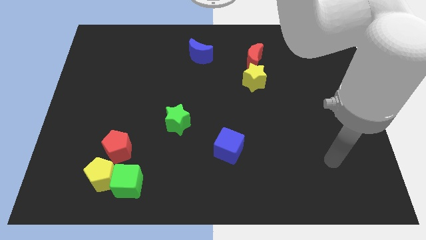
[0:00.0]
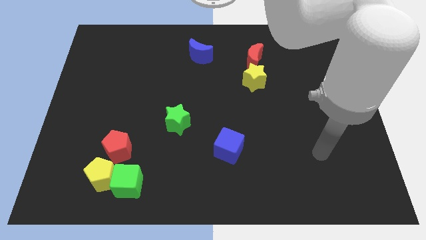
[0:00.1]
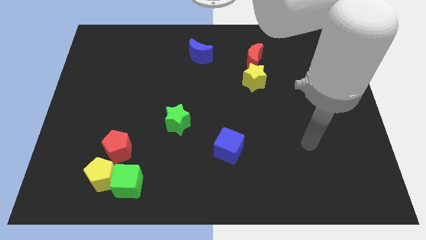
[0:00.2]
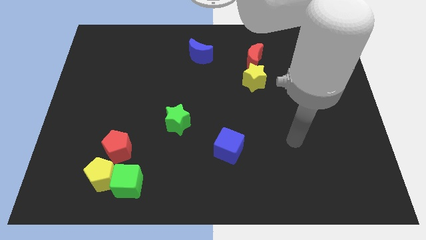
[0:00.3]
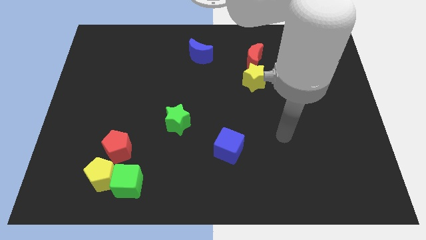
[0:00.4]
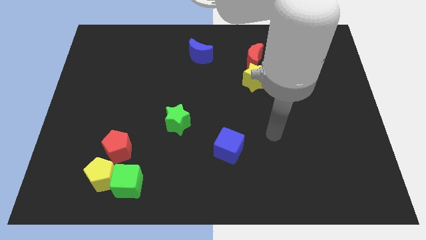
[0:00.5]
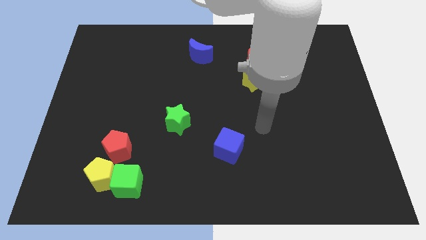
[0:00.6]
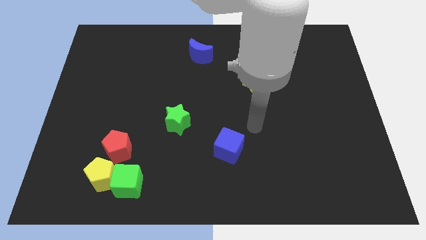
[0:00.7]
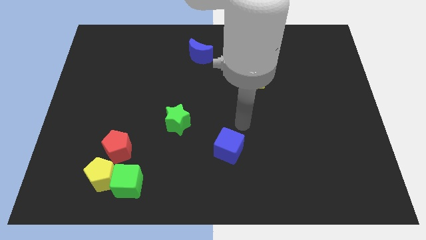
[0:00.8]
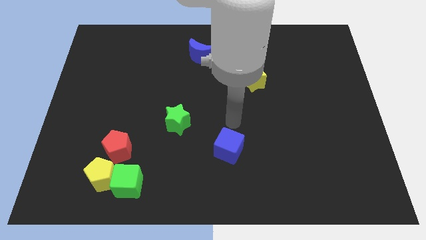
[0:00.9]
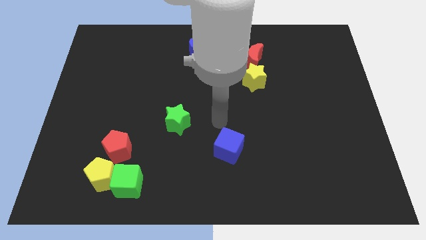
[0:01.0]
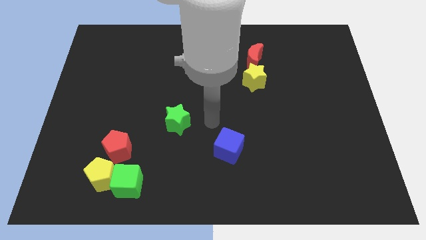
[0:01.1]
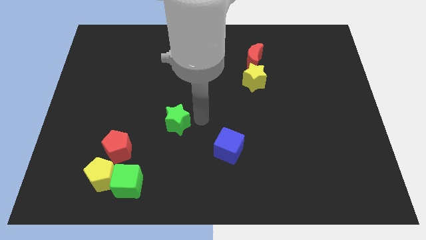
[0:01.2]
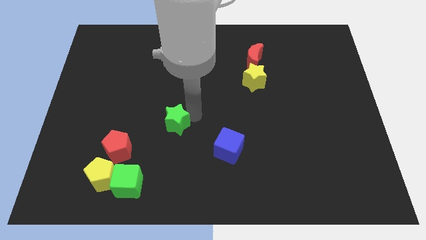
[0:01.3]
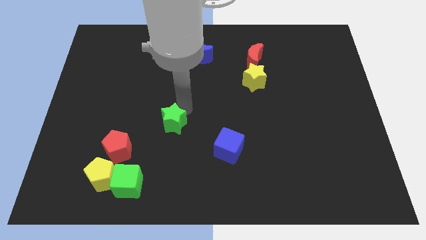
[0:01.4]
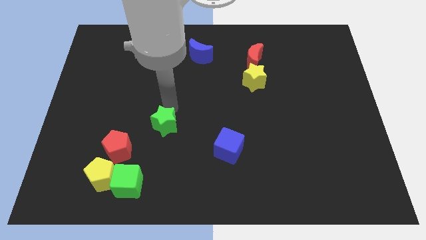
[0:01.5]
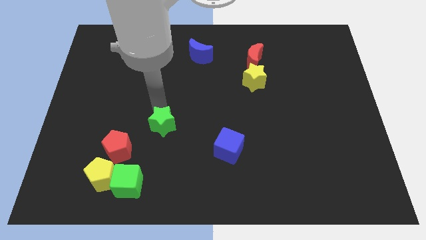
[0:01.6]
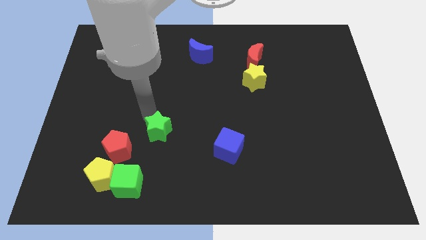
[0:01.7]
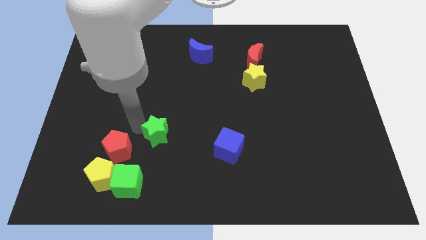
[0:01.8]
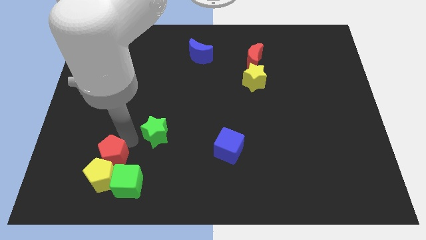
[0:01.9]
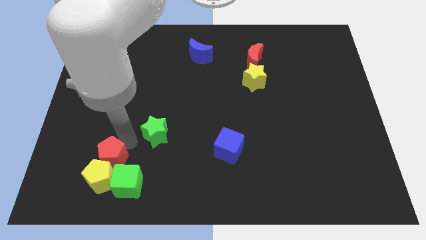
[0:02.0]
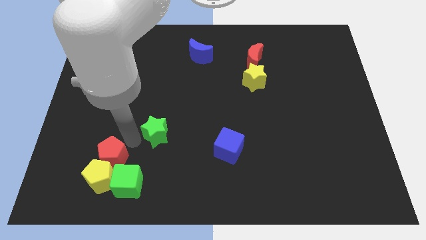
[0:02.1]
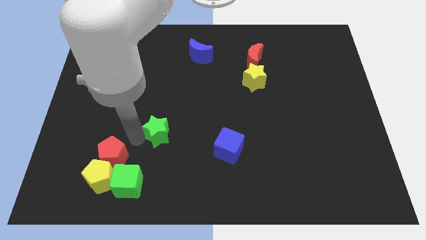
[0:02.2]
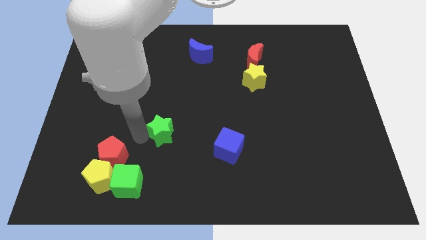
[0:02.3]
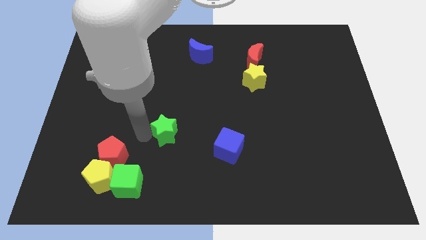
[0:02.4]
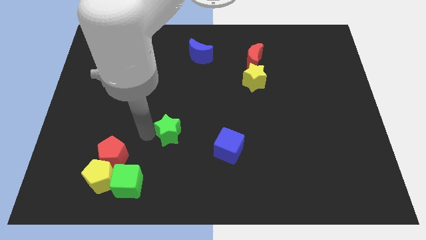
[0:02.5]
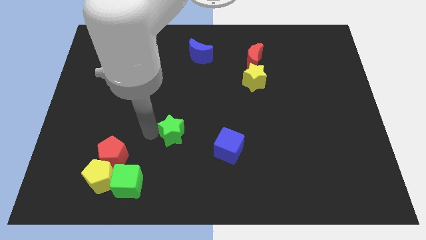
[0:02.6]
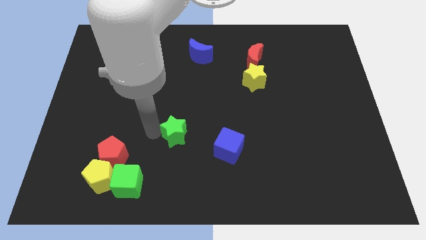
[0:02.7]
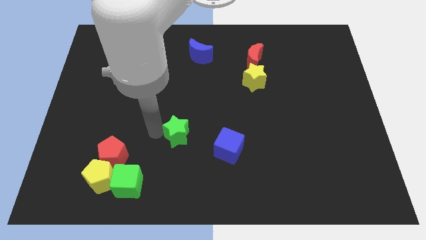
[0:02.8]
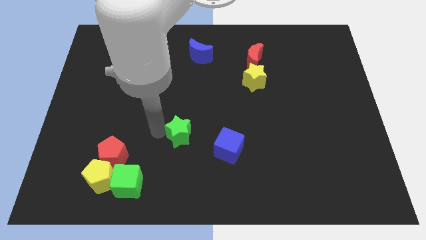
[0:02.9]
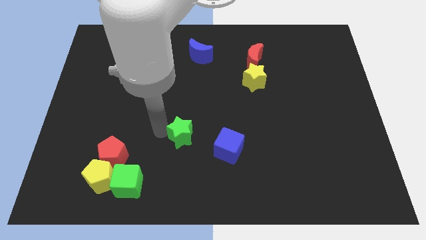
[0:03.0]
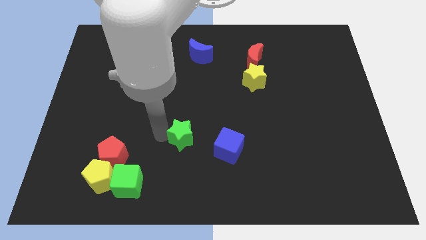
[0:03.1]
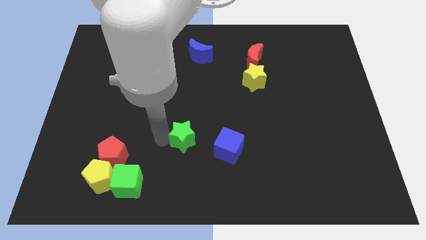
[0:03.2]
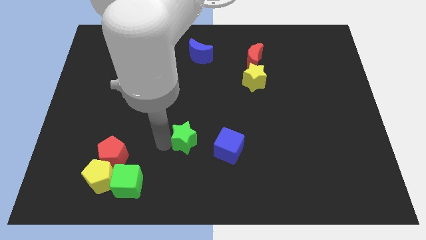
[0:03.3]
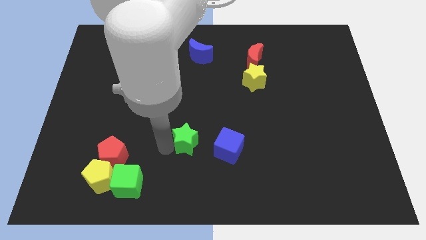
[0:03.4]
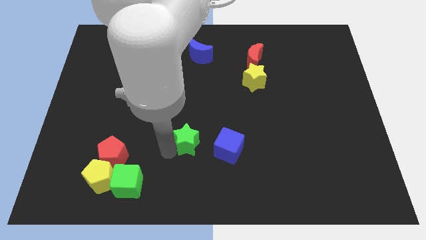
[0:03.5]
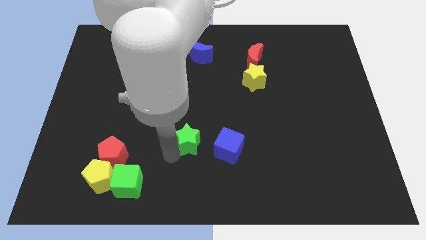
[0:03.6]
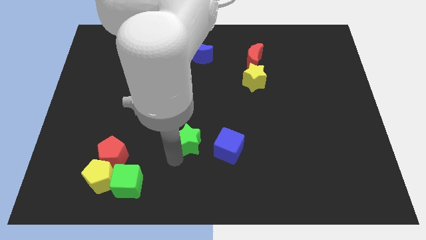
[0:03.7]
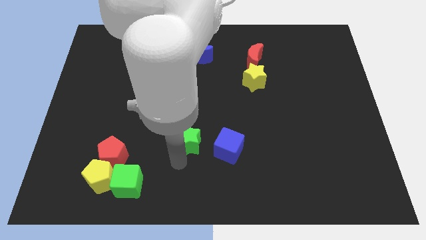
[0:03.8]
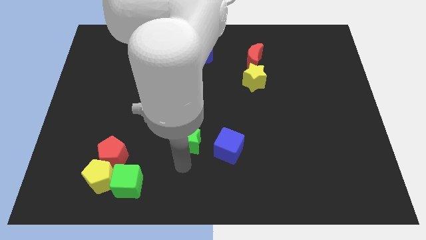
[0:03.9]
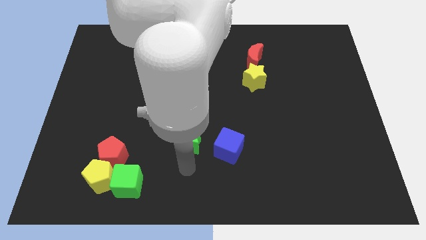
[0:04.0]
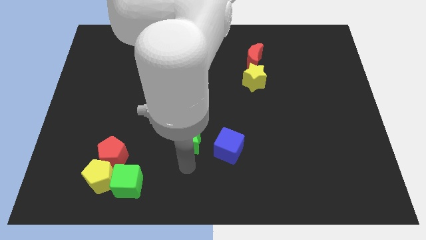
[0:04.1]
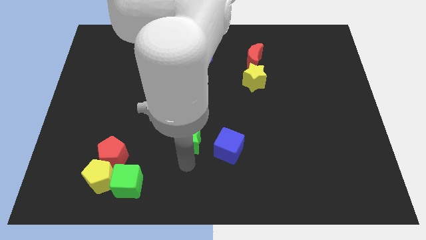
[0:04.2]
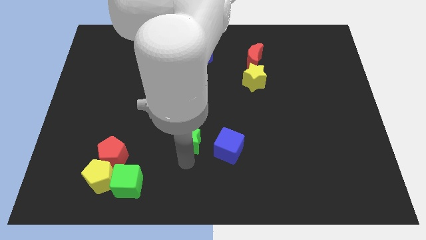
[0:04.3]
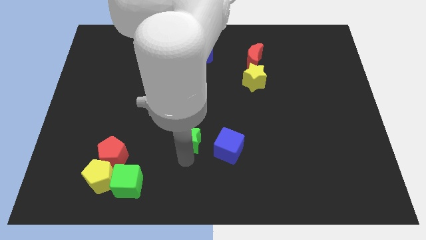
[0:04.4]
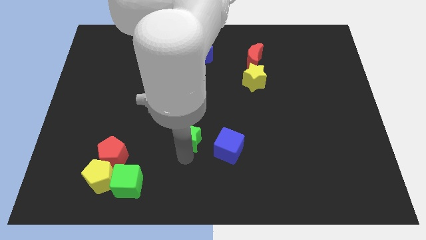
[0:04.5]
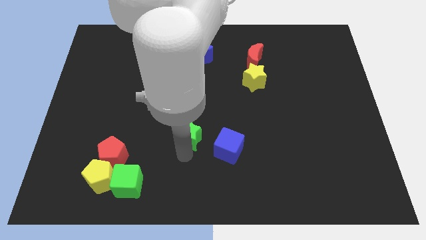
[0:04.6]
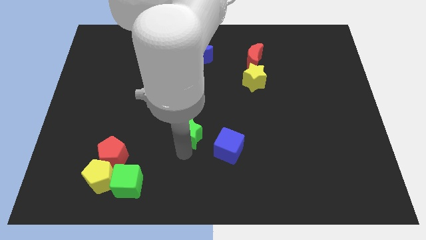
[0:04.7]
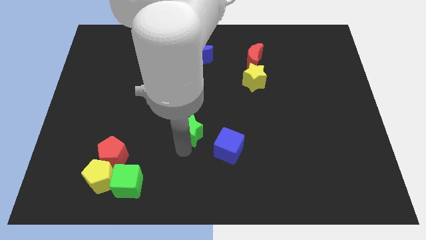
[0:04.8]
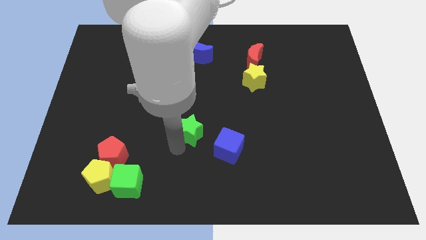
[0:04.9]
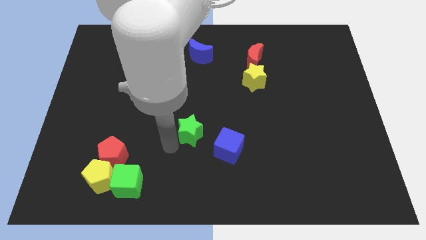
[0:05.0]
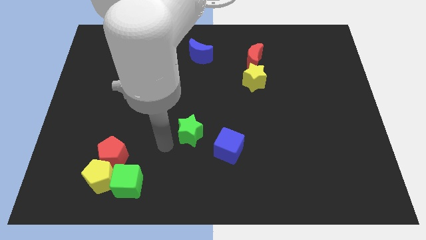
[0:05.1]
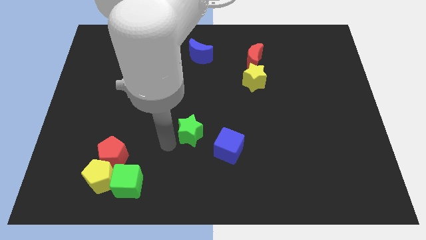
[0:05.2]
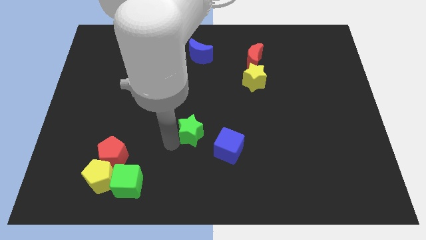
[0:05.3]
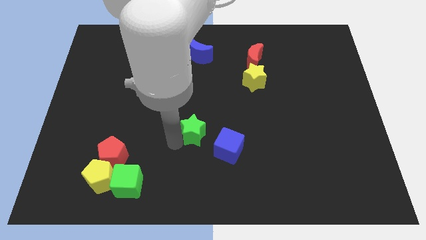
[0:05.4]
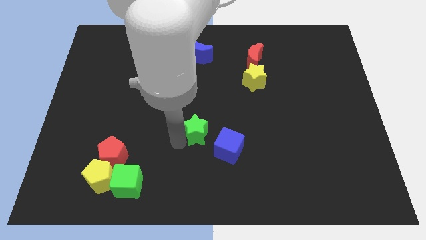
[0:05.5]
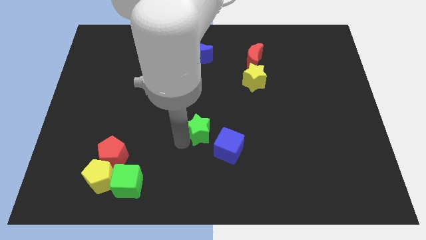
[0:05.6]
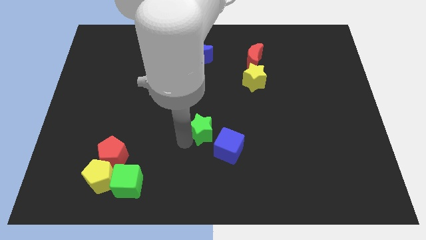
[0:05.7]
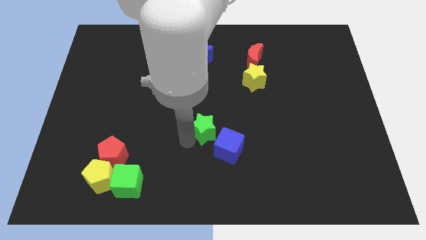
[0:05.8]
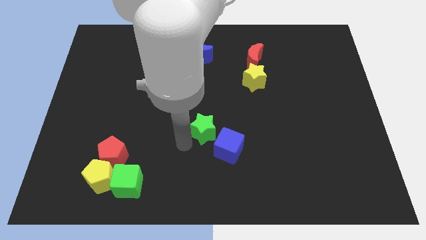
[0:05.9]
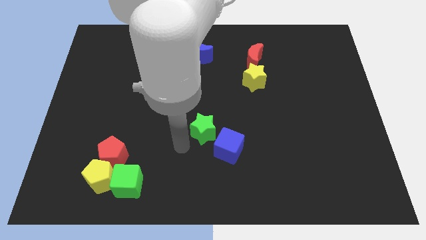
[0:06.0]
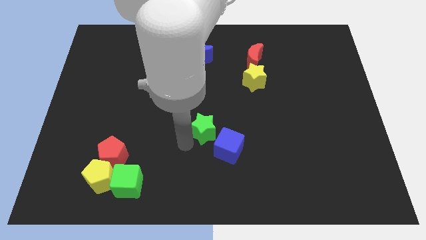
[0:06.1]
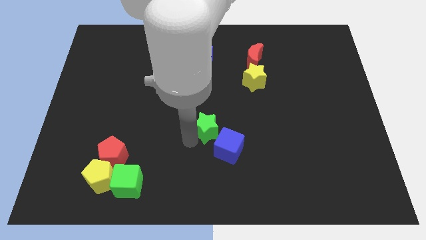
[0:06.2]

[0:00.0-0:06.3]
slide the green star a little bit to the right

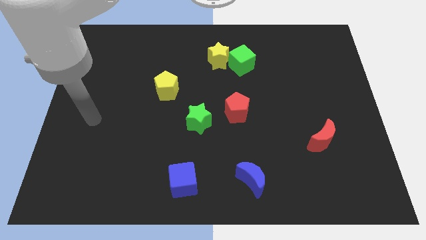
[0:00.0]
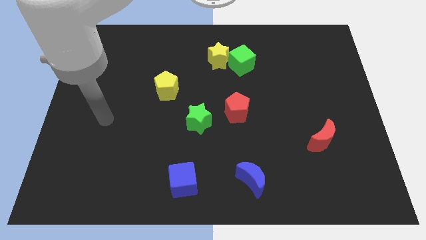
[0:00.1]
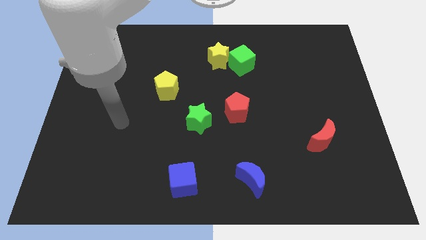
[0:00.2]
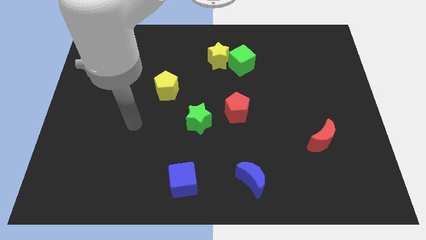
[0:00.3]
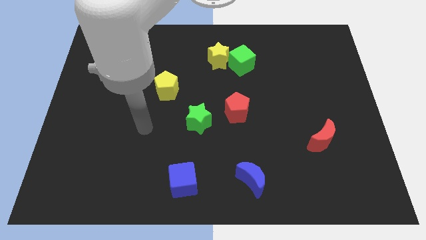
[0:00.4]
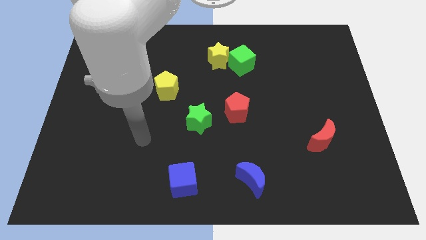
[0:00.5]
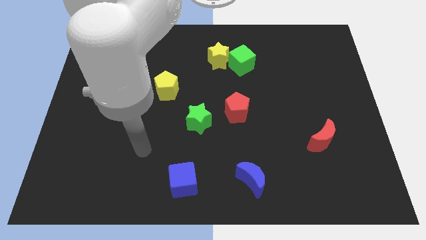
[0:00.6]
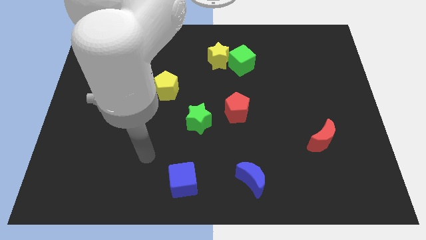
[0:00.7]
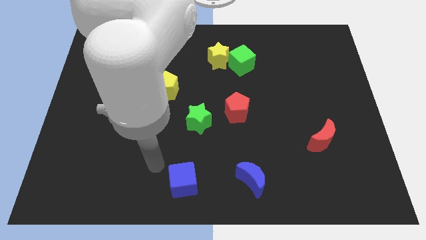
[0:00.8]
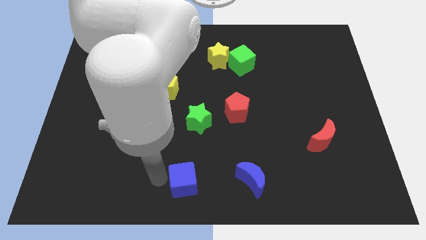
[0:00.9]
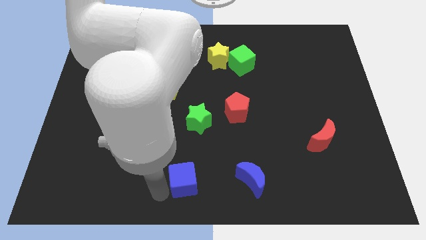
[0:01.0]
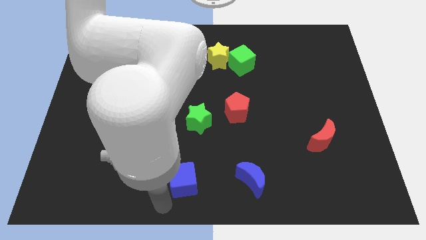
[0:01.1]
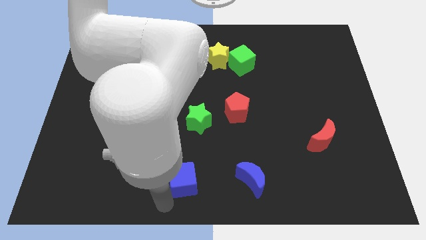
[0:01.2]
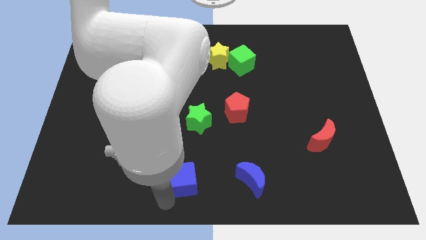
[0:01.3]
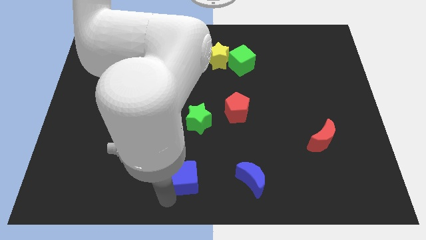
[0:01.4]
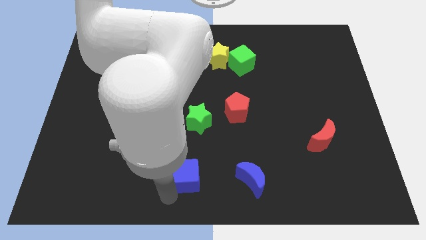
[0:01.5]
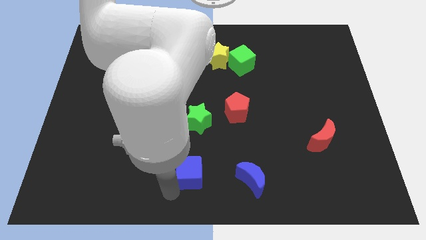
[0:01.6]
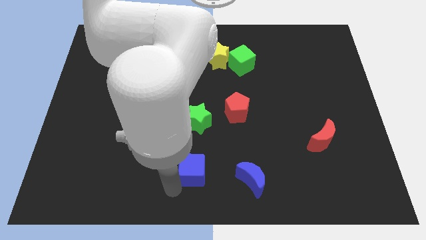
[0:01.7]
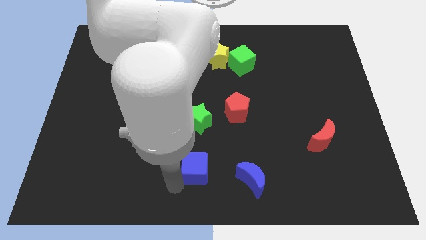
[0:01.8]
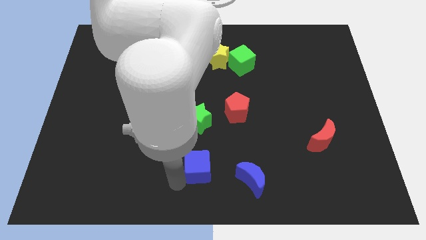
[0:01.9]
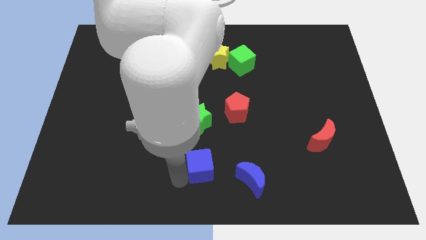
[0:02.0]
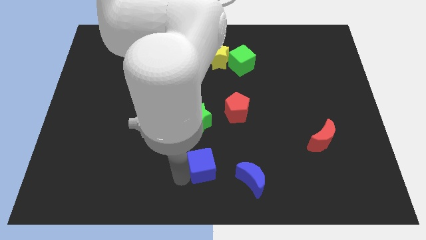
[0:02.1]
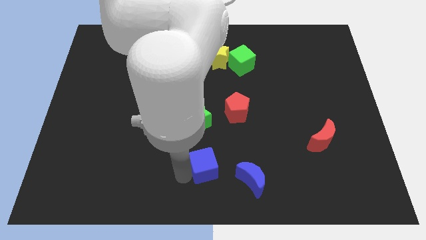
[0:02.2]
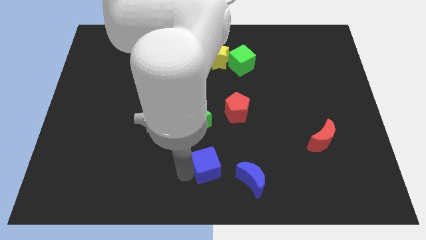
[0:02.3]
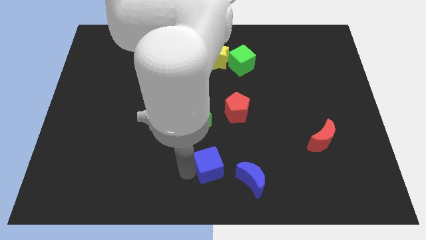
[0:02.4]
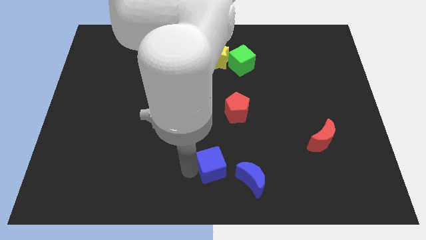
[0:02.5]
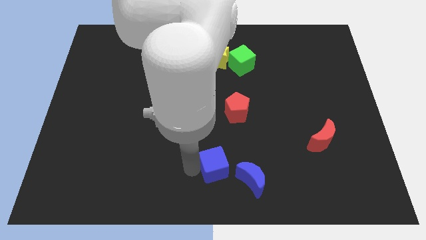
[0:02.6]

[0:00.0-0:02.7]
move the blue cube somewhat upwards and then right
